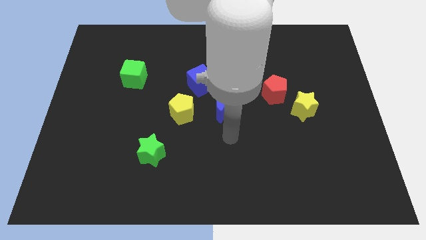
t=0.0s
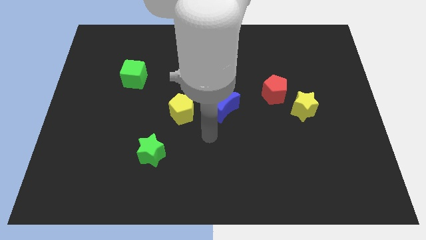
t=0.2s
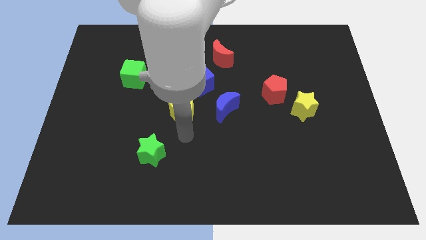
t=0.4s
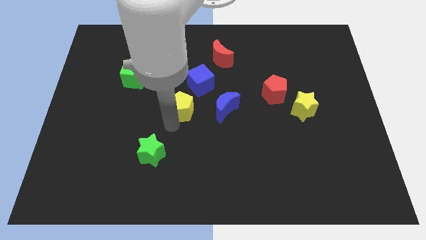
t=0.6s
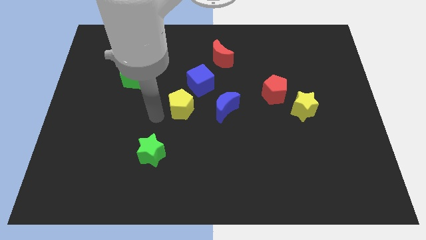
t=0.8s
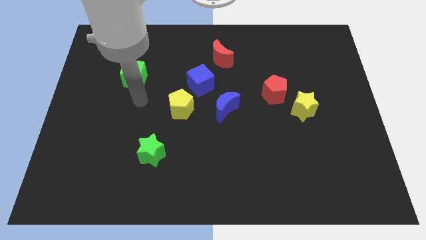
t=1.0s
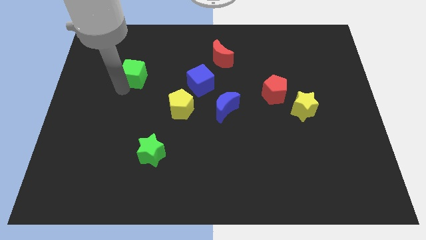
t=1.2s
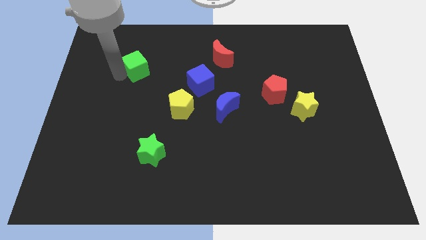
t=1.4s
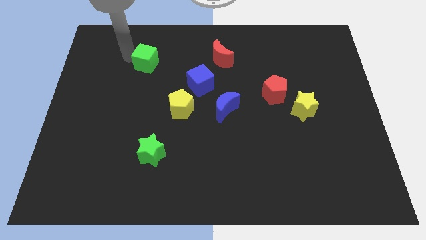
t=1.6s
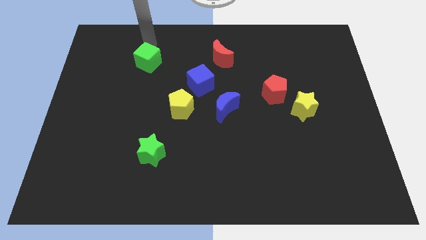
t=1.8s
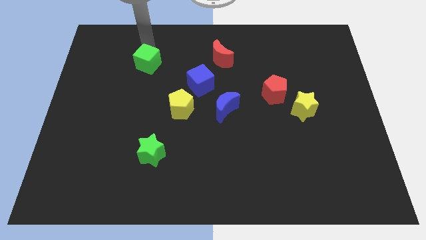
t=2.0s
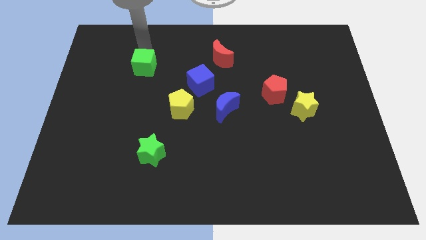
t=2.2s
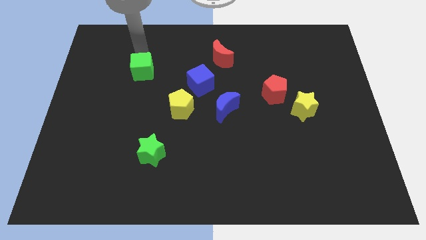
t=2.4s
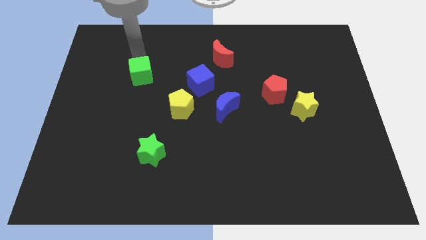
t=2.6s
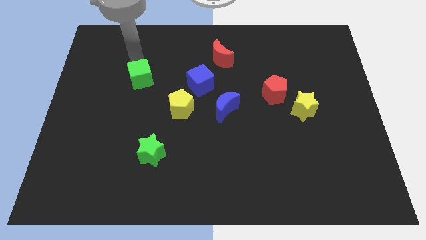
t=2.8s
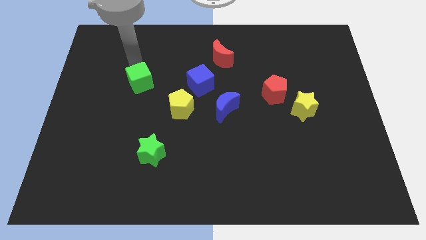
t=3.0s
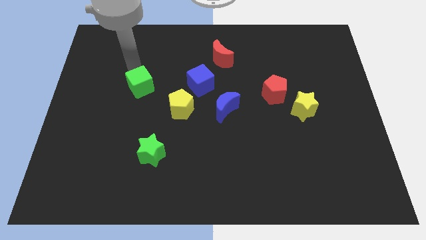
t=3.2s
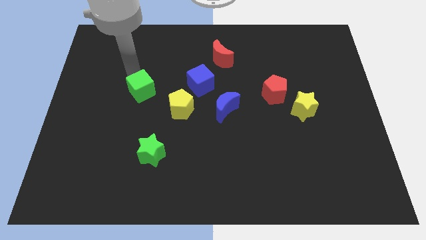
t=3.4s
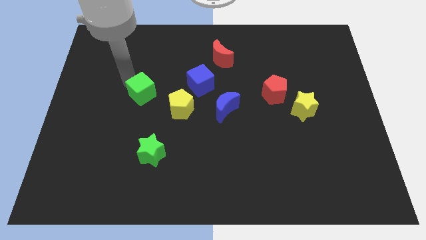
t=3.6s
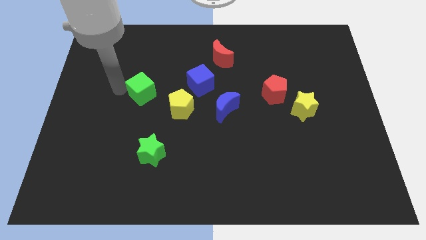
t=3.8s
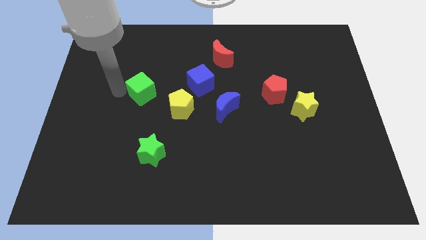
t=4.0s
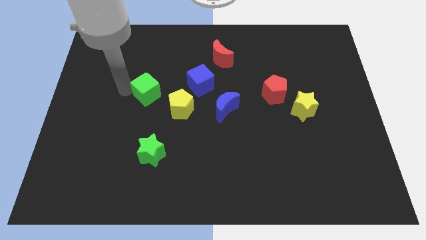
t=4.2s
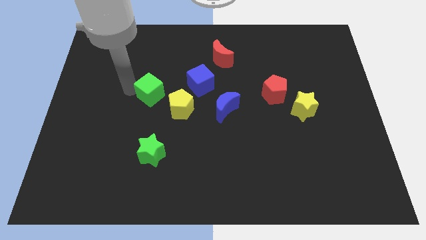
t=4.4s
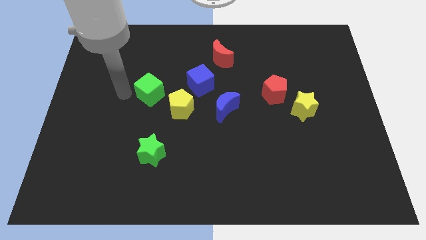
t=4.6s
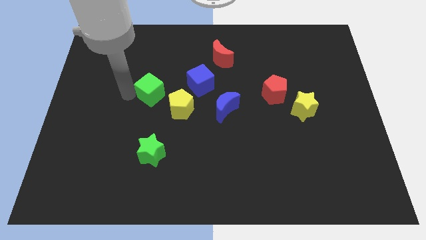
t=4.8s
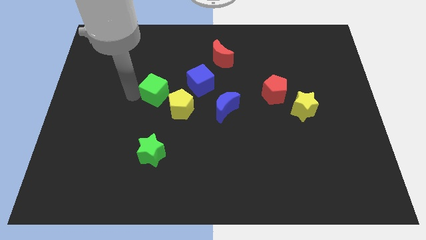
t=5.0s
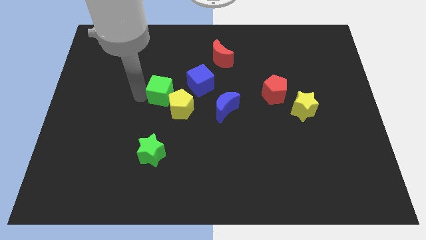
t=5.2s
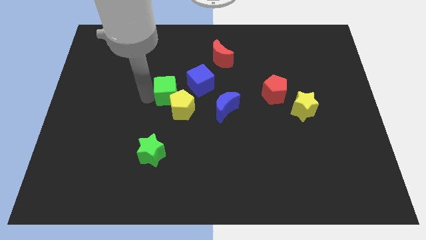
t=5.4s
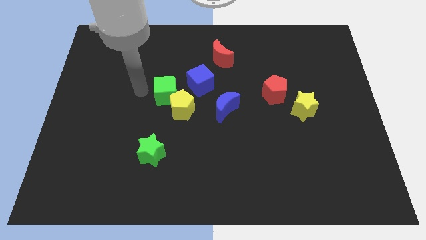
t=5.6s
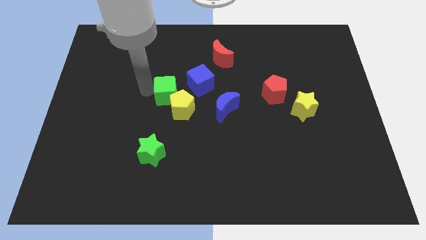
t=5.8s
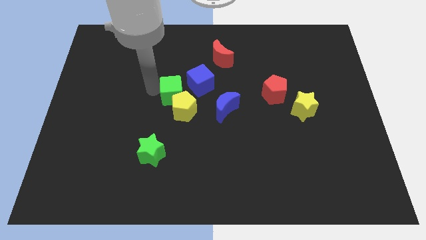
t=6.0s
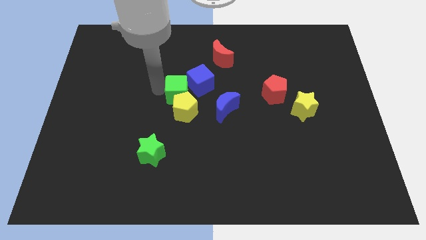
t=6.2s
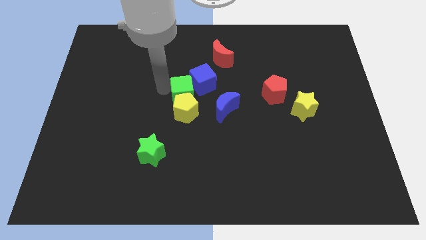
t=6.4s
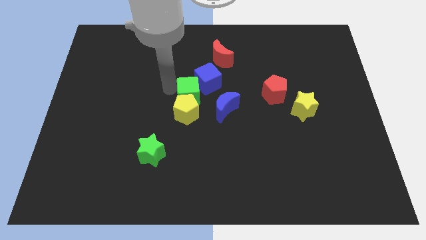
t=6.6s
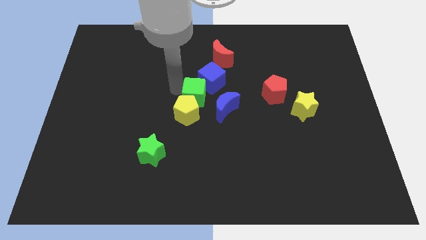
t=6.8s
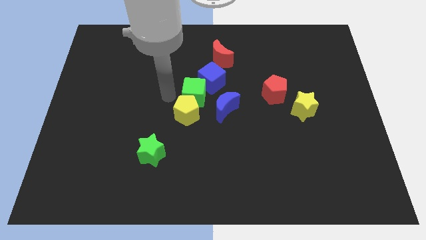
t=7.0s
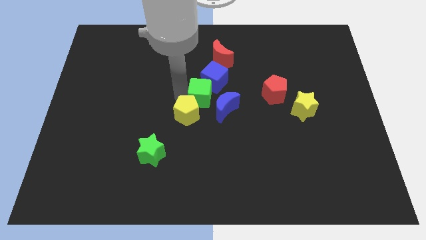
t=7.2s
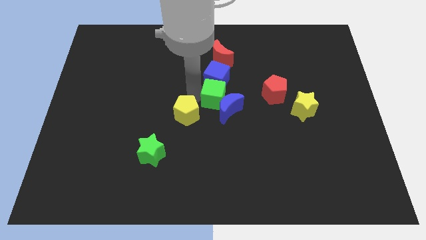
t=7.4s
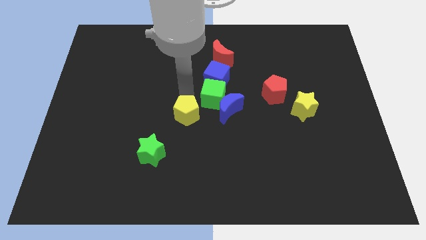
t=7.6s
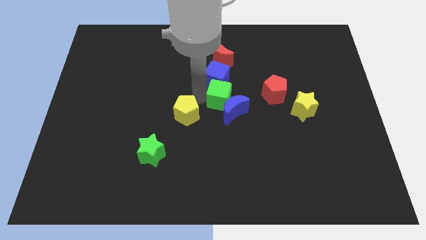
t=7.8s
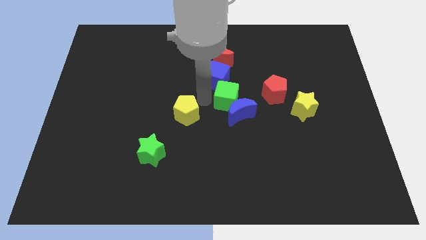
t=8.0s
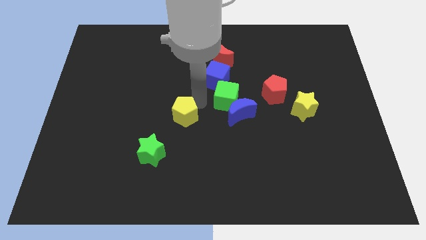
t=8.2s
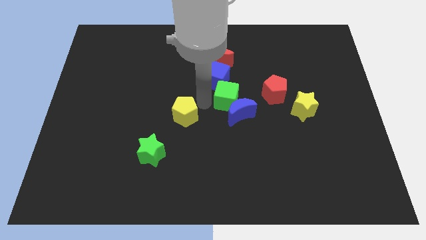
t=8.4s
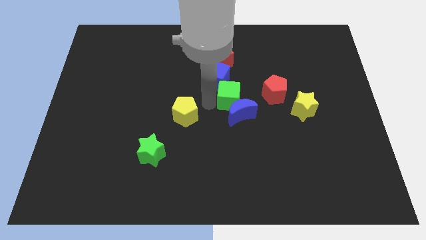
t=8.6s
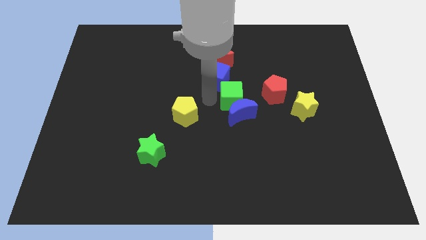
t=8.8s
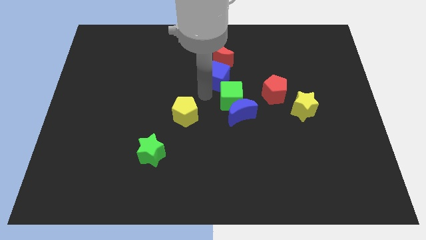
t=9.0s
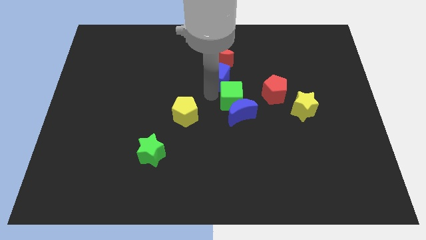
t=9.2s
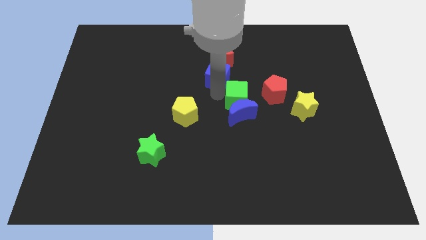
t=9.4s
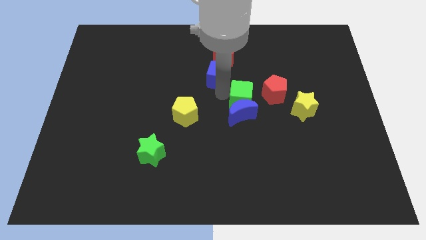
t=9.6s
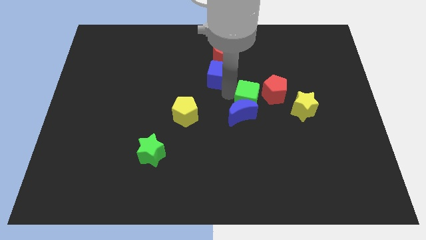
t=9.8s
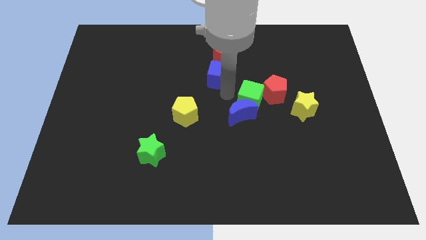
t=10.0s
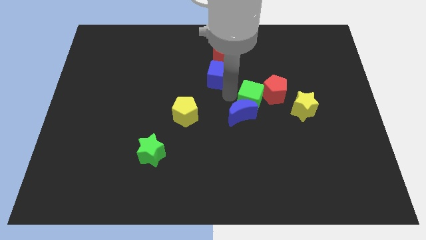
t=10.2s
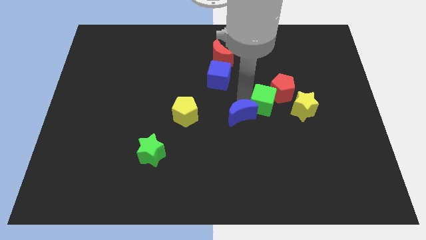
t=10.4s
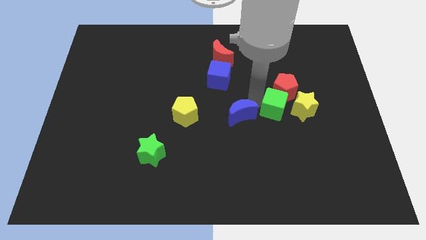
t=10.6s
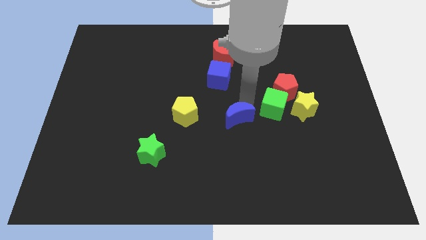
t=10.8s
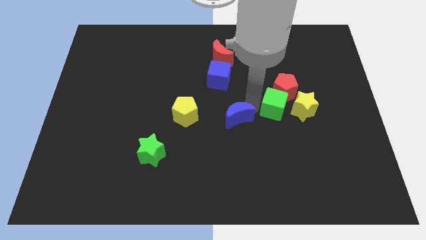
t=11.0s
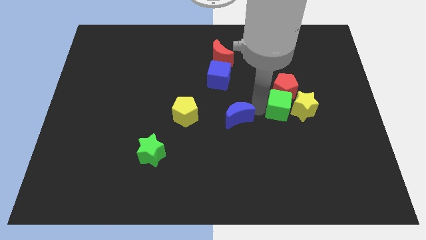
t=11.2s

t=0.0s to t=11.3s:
push the green cube close to the yellow star

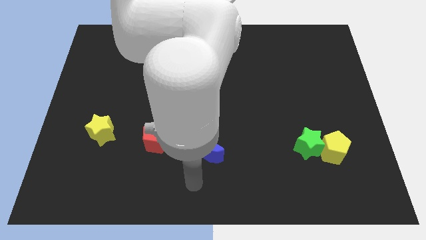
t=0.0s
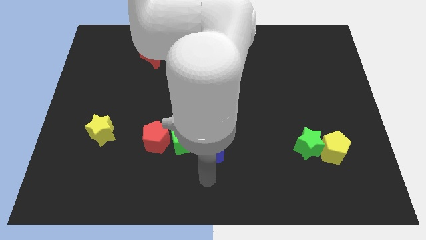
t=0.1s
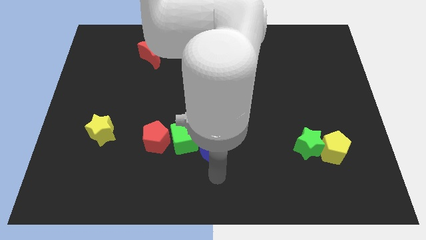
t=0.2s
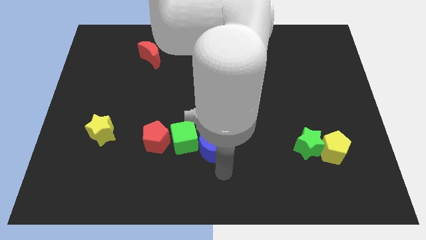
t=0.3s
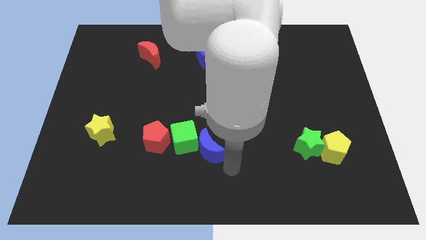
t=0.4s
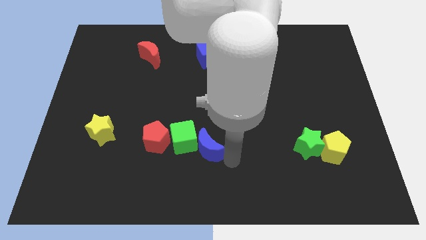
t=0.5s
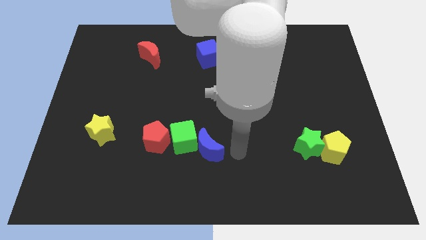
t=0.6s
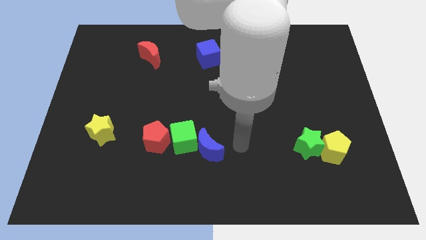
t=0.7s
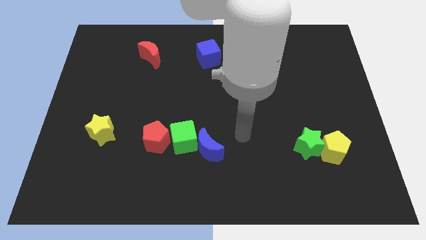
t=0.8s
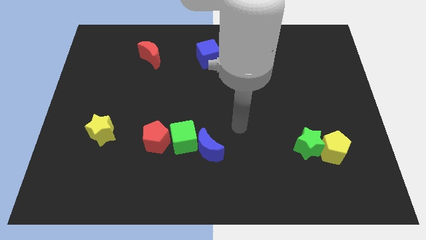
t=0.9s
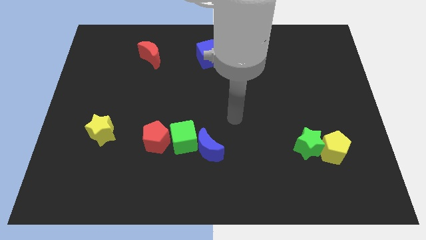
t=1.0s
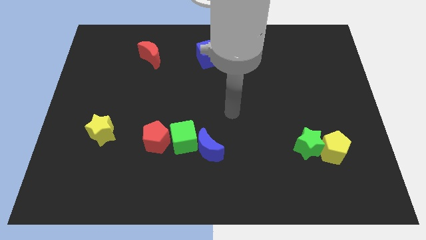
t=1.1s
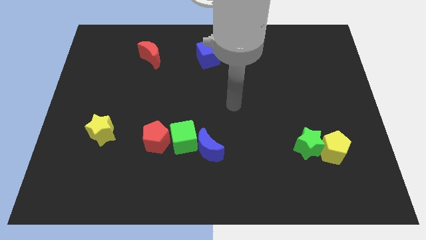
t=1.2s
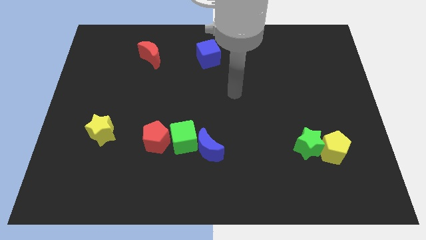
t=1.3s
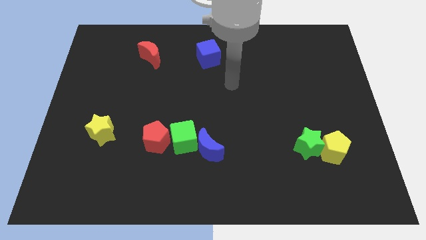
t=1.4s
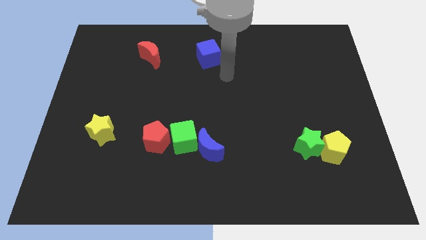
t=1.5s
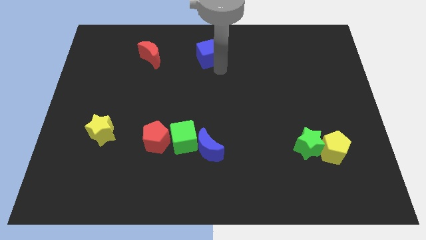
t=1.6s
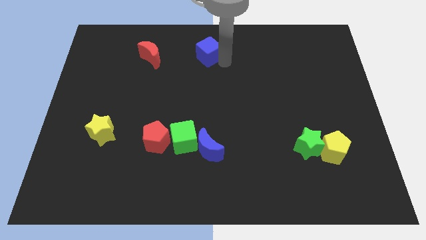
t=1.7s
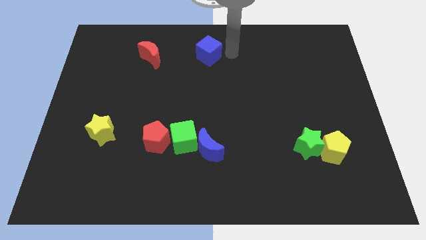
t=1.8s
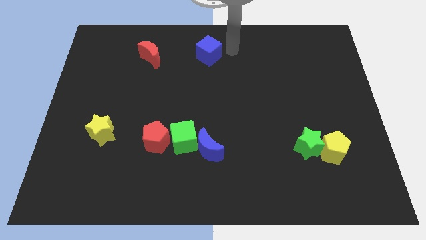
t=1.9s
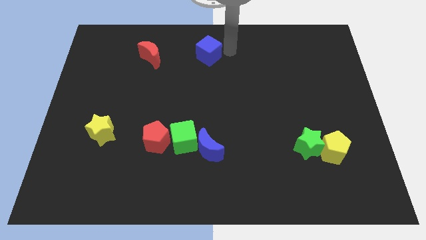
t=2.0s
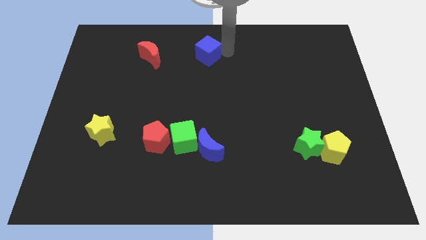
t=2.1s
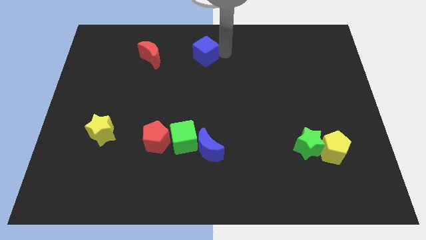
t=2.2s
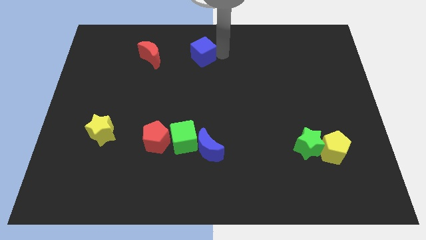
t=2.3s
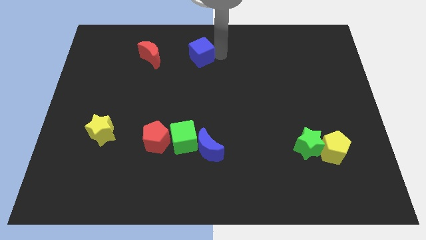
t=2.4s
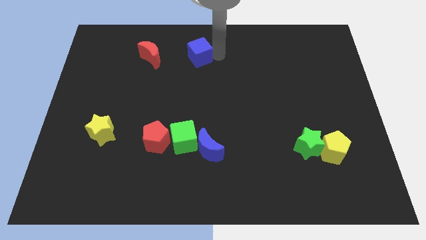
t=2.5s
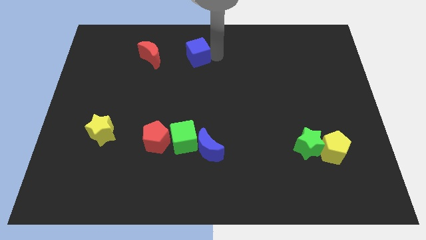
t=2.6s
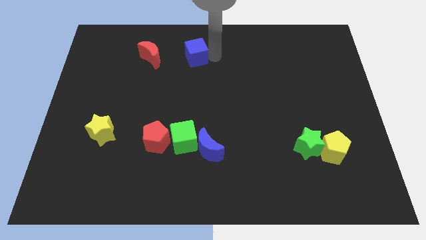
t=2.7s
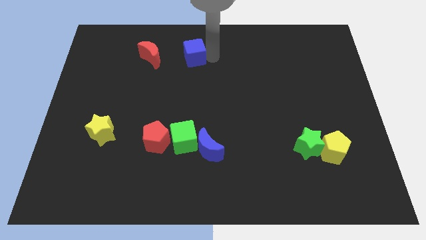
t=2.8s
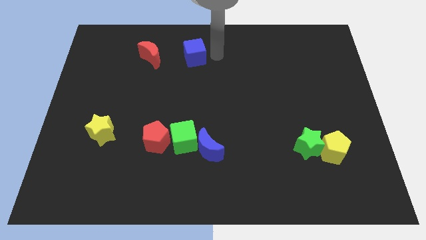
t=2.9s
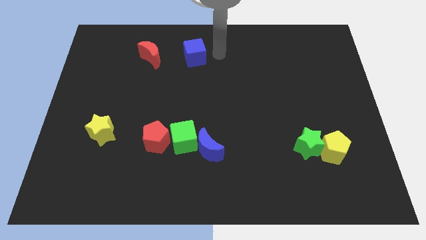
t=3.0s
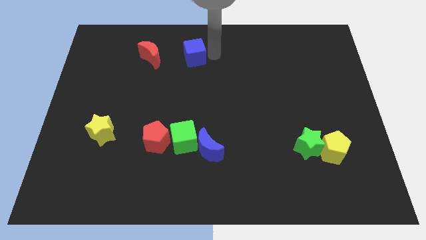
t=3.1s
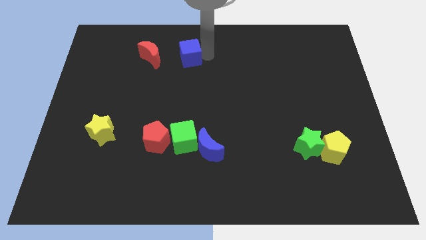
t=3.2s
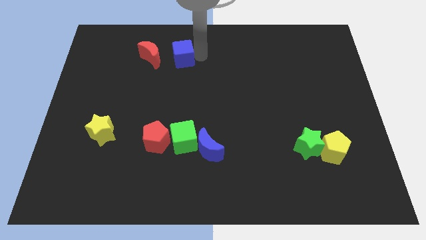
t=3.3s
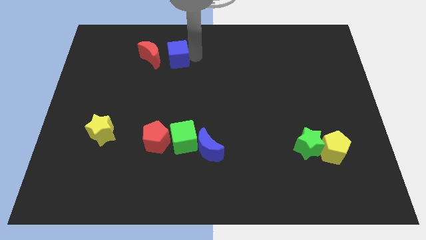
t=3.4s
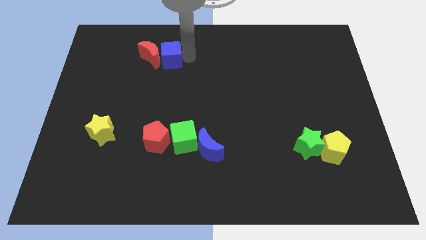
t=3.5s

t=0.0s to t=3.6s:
move the blue cube close to the red moon
